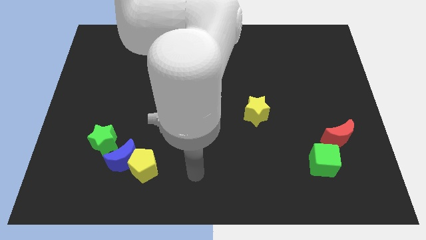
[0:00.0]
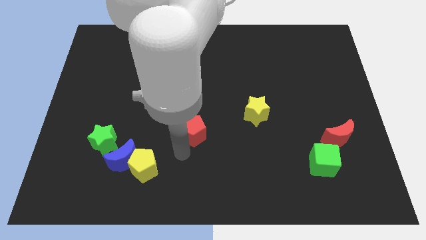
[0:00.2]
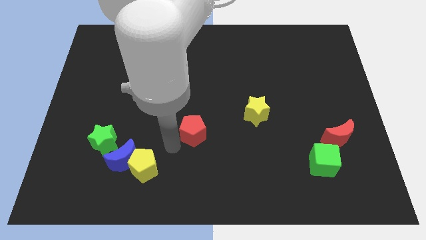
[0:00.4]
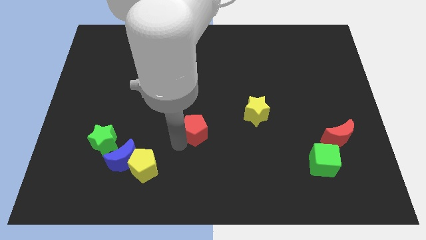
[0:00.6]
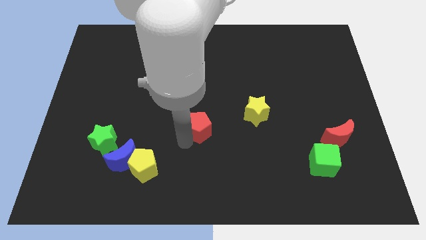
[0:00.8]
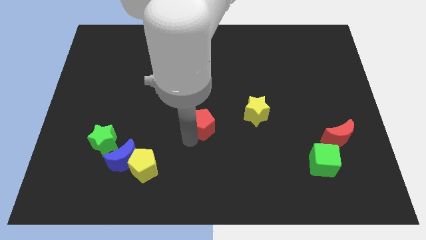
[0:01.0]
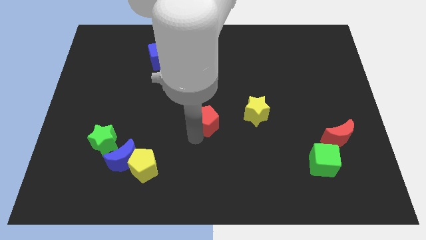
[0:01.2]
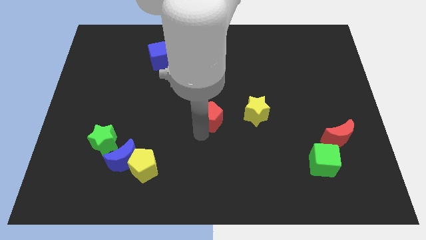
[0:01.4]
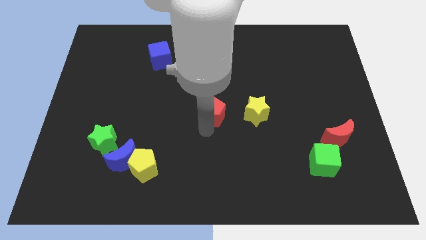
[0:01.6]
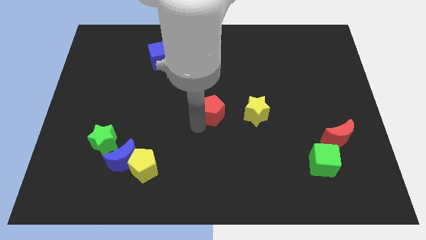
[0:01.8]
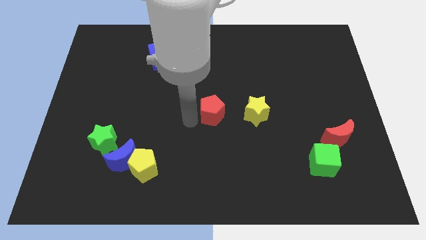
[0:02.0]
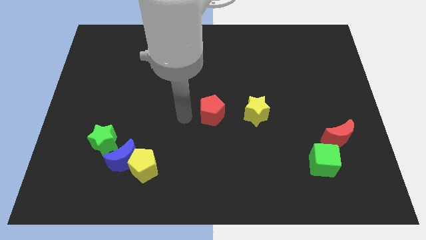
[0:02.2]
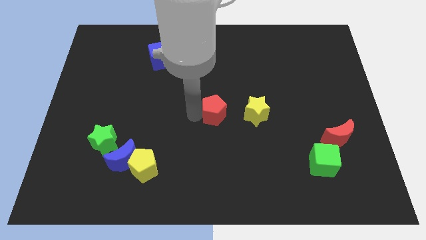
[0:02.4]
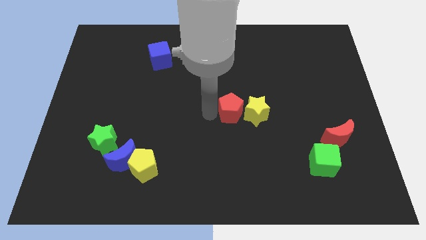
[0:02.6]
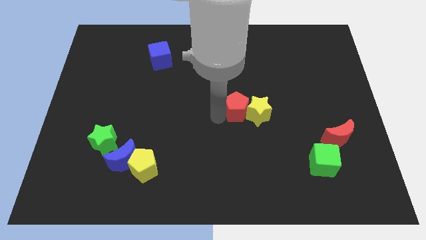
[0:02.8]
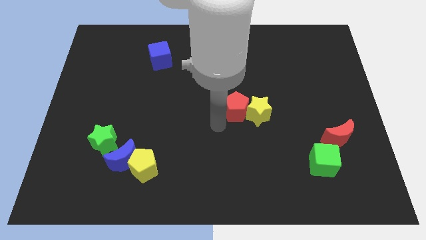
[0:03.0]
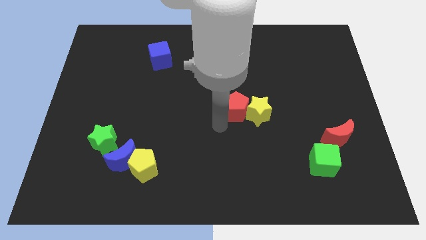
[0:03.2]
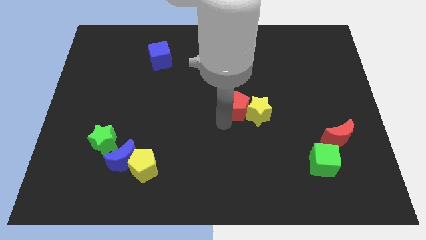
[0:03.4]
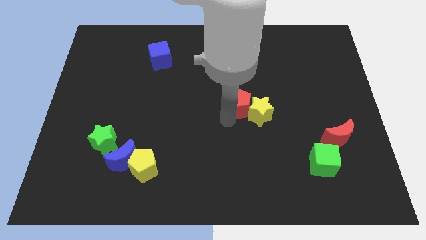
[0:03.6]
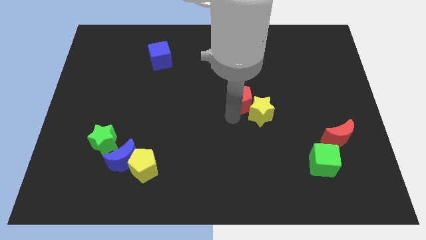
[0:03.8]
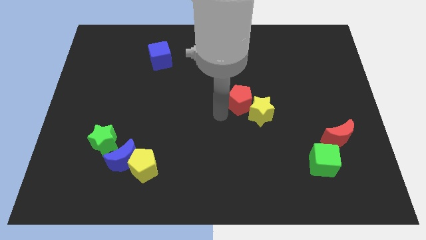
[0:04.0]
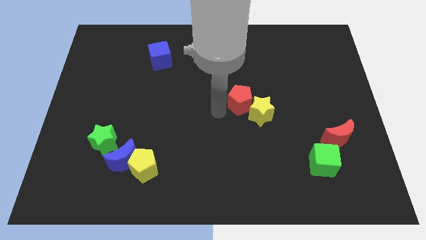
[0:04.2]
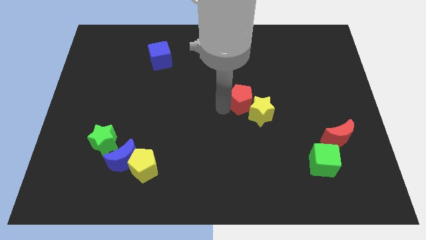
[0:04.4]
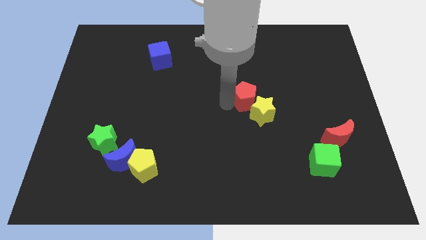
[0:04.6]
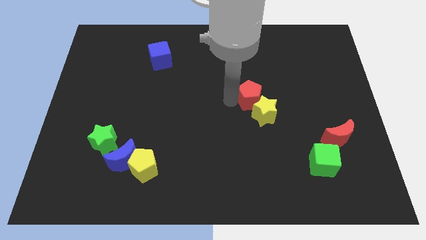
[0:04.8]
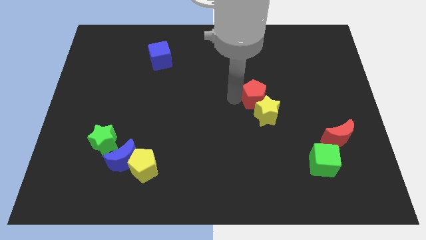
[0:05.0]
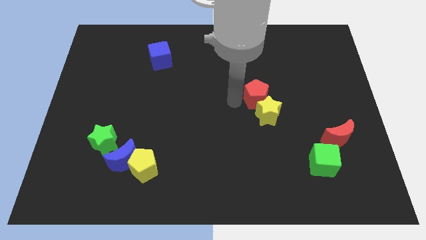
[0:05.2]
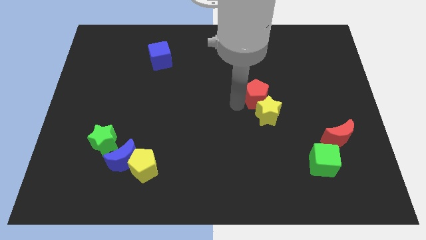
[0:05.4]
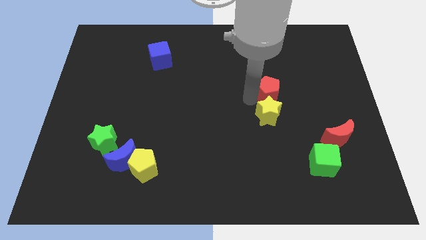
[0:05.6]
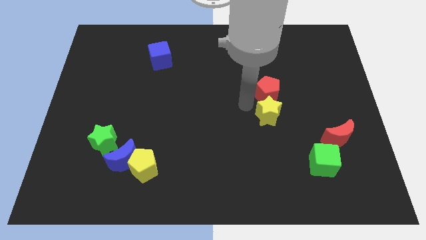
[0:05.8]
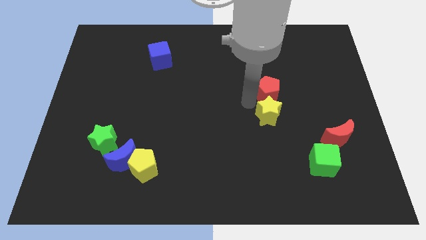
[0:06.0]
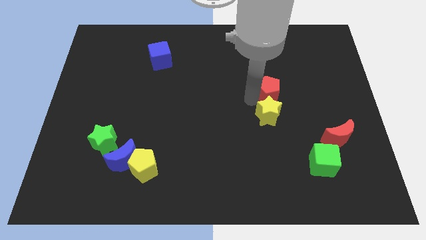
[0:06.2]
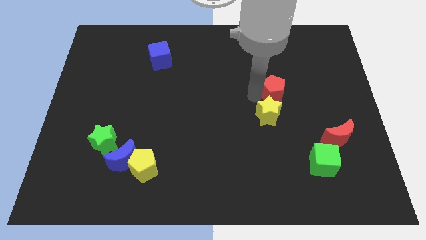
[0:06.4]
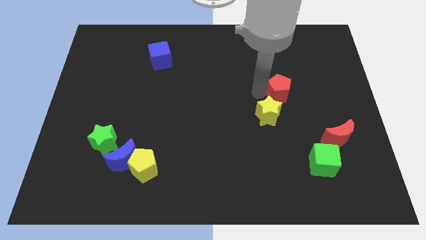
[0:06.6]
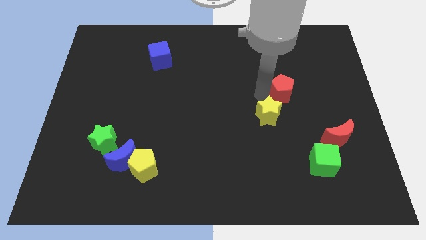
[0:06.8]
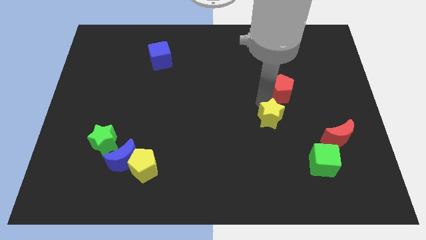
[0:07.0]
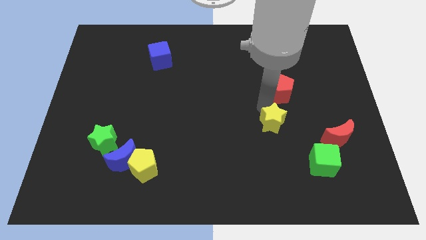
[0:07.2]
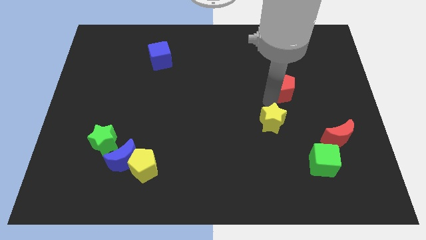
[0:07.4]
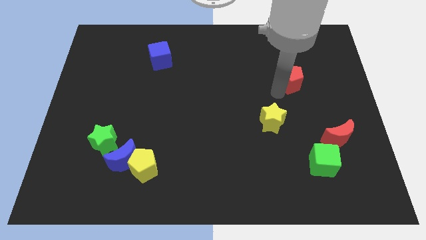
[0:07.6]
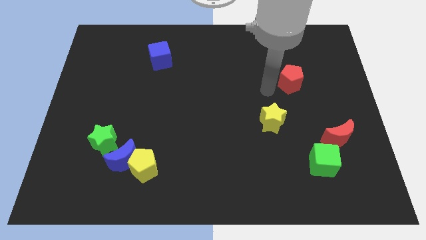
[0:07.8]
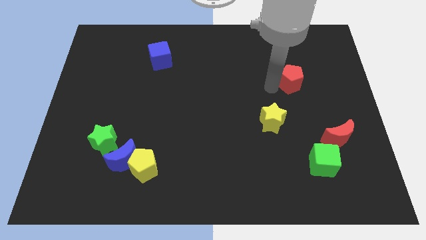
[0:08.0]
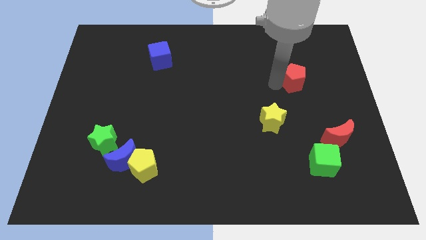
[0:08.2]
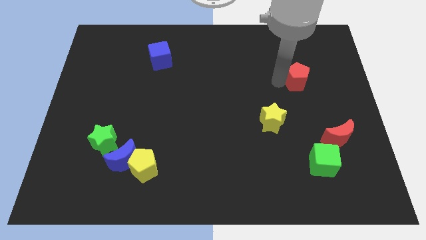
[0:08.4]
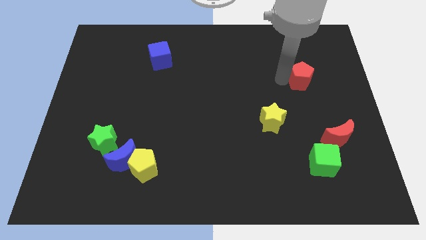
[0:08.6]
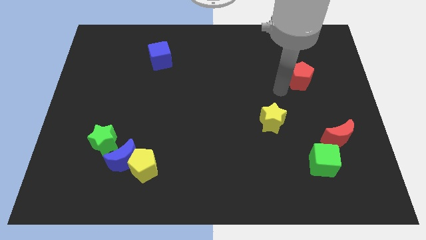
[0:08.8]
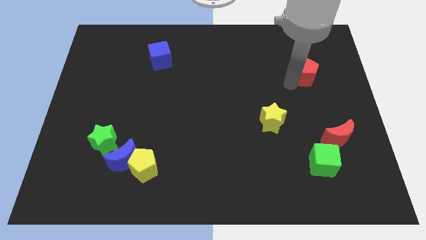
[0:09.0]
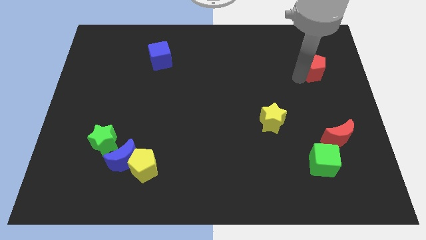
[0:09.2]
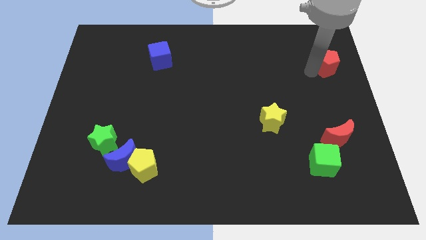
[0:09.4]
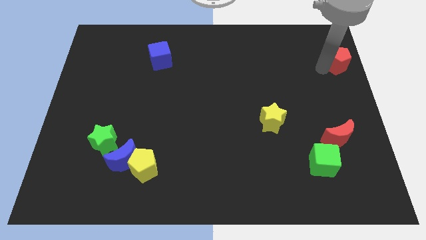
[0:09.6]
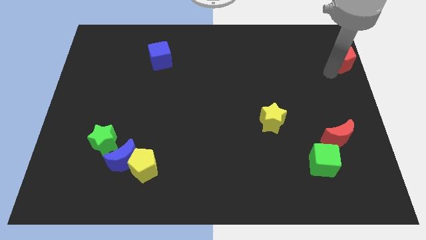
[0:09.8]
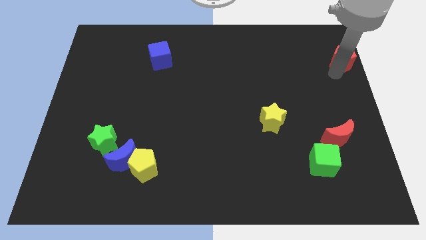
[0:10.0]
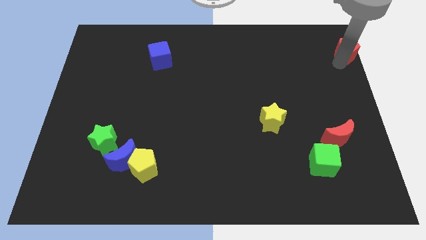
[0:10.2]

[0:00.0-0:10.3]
slide the red pentagon to the top right of the board

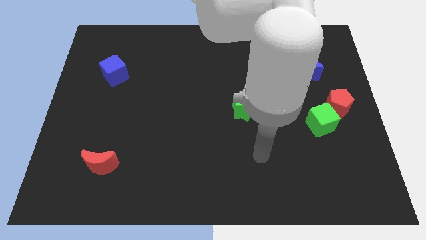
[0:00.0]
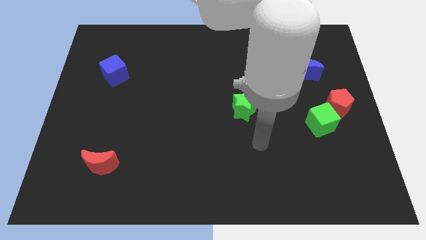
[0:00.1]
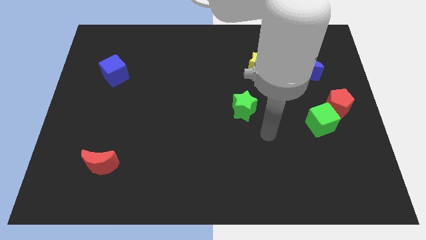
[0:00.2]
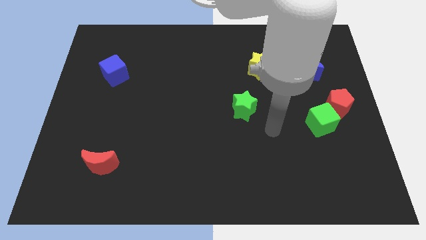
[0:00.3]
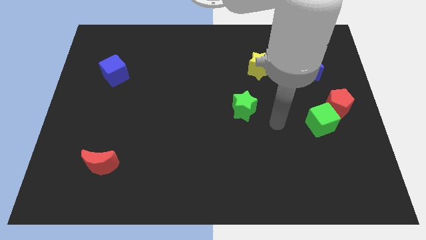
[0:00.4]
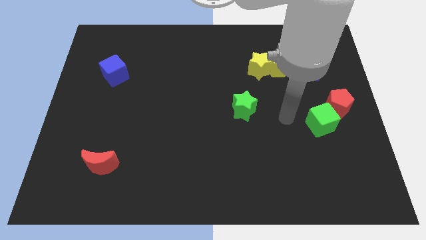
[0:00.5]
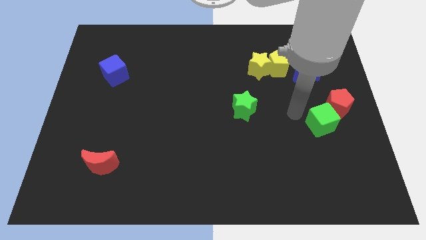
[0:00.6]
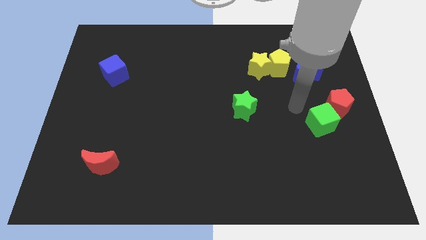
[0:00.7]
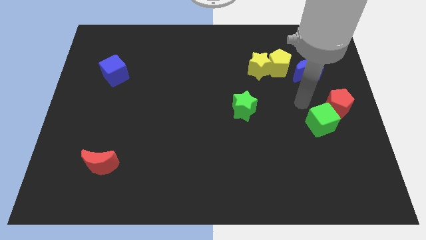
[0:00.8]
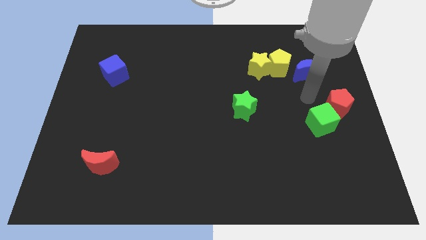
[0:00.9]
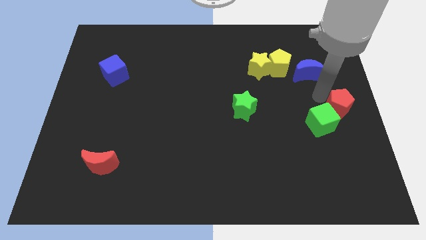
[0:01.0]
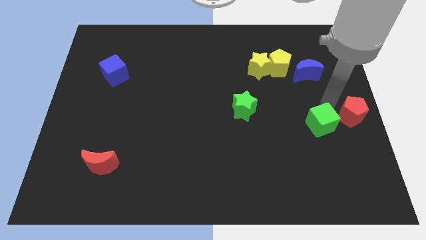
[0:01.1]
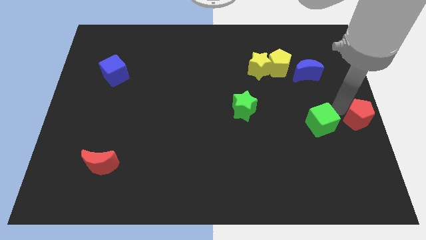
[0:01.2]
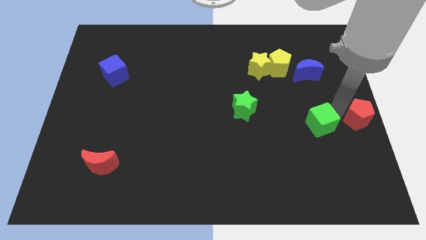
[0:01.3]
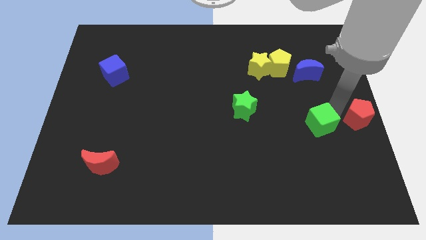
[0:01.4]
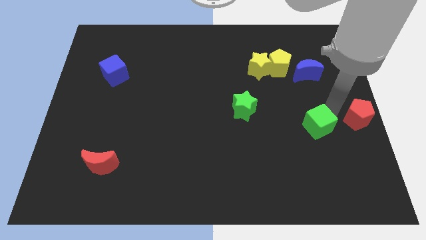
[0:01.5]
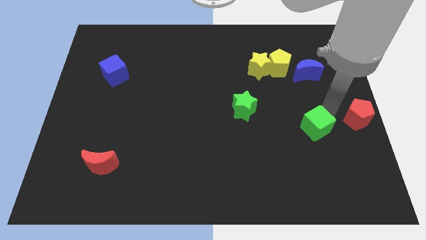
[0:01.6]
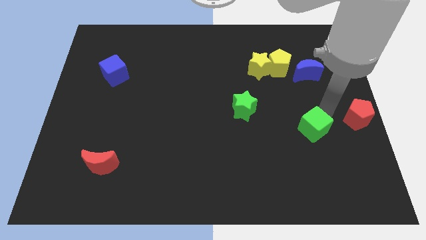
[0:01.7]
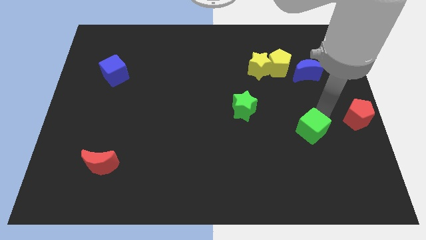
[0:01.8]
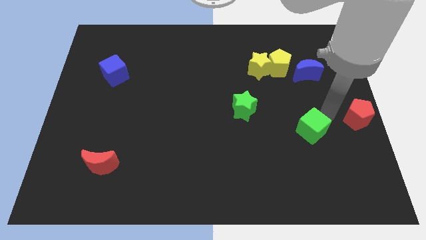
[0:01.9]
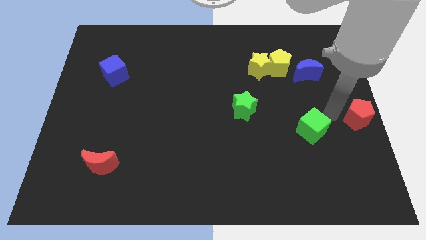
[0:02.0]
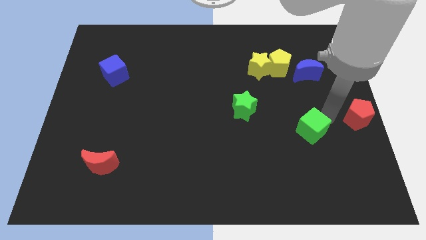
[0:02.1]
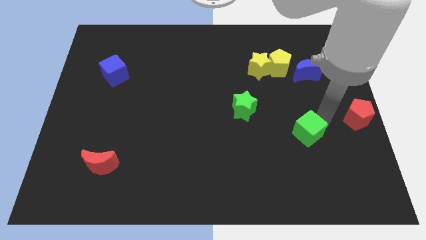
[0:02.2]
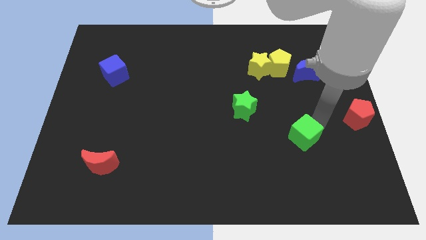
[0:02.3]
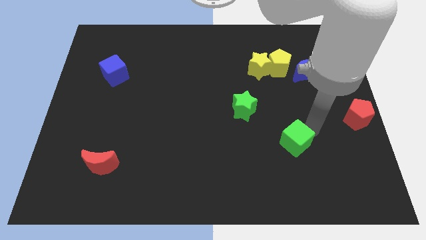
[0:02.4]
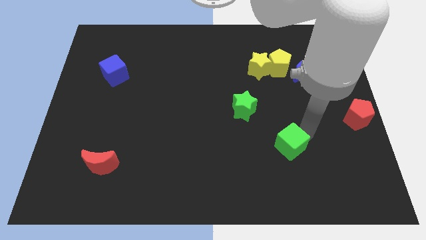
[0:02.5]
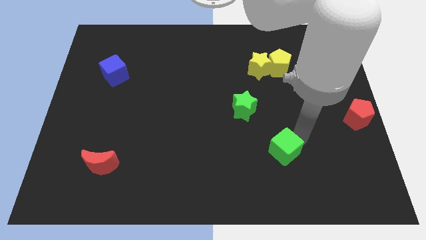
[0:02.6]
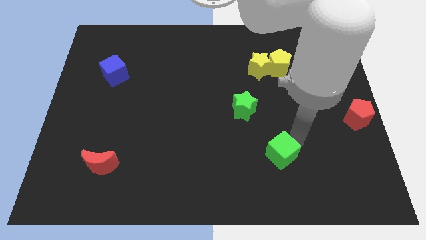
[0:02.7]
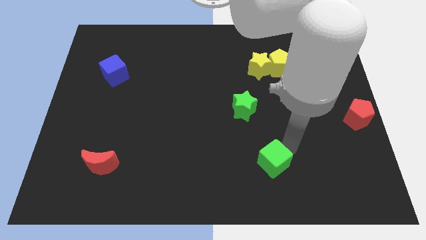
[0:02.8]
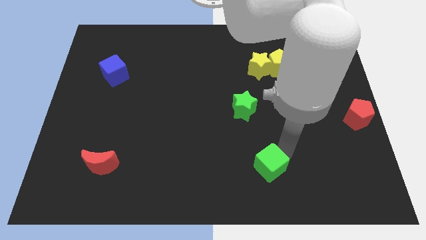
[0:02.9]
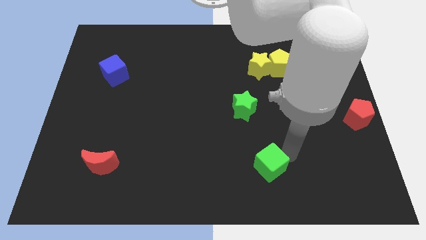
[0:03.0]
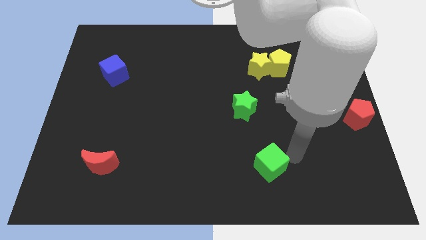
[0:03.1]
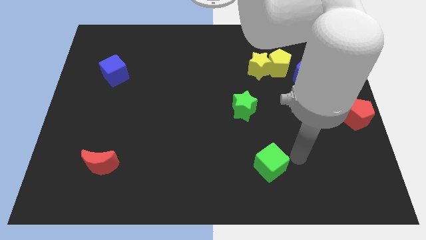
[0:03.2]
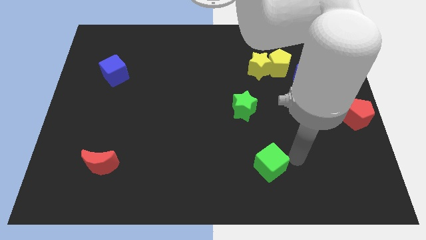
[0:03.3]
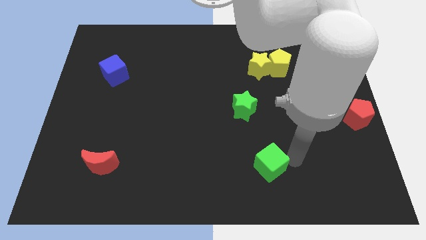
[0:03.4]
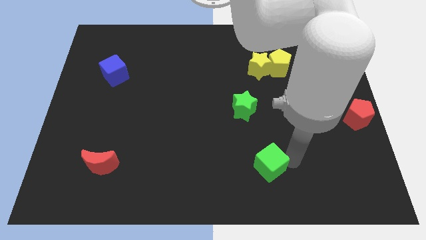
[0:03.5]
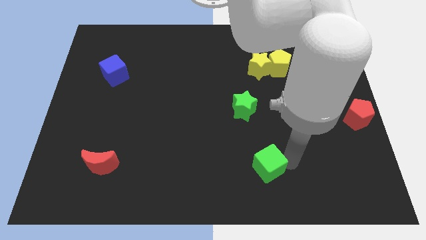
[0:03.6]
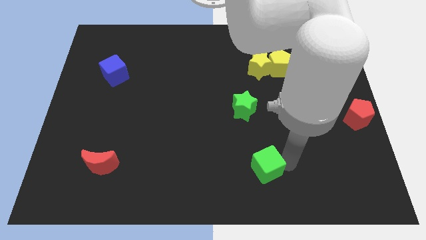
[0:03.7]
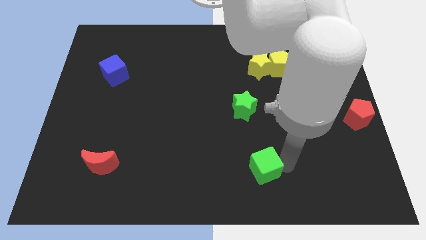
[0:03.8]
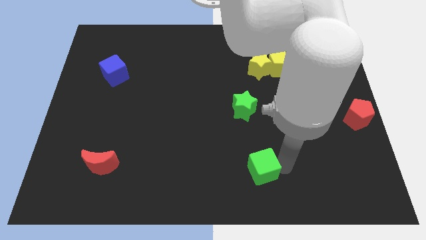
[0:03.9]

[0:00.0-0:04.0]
put the green cube to the bottom
